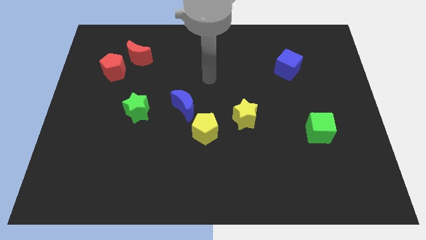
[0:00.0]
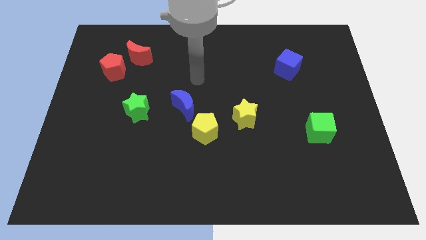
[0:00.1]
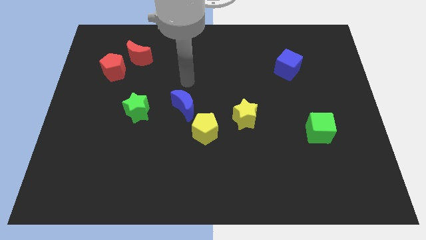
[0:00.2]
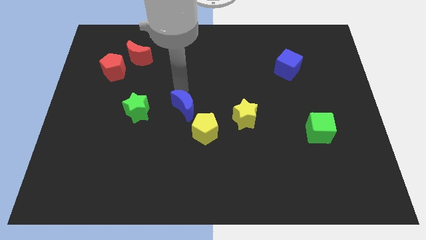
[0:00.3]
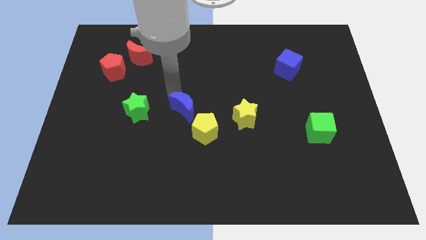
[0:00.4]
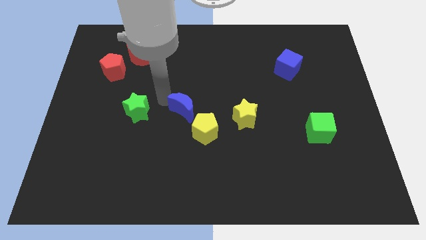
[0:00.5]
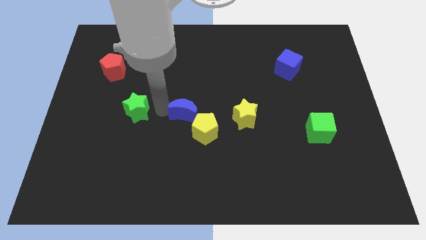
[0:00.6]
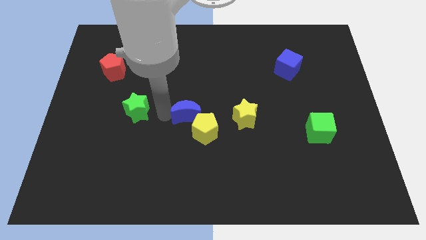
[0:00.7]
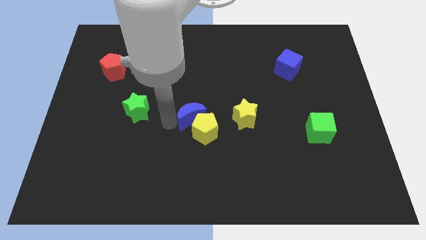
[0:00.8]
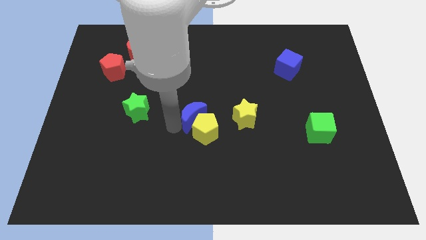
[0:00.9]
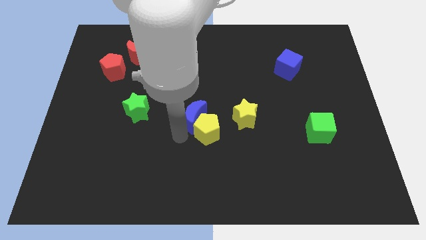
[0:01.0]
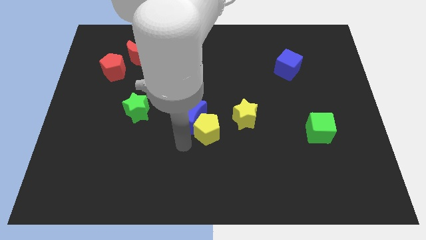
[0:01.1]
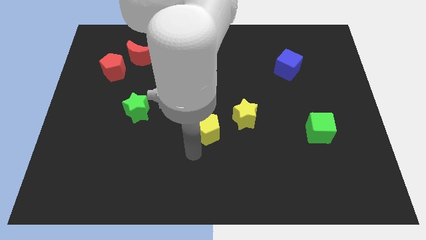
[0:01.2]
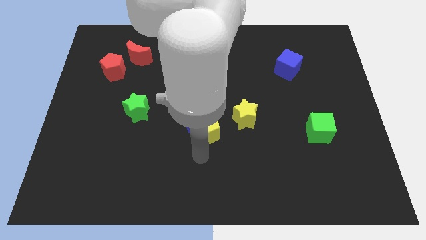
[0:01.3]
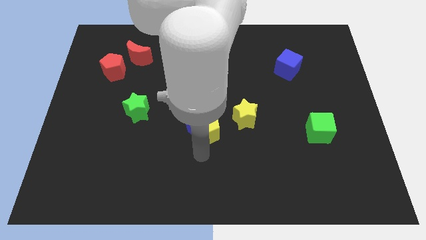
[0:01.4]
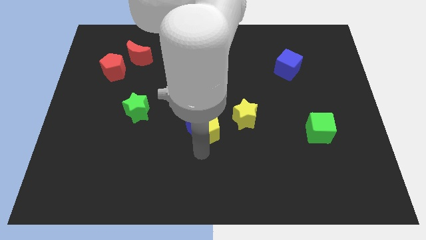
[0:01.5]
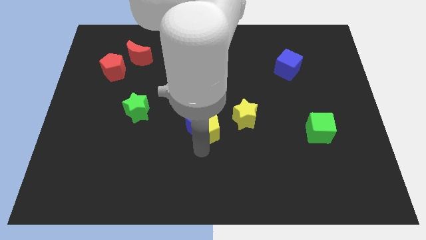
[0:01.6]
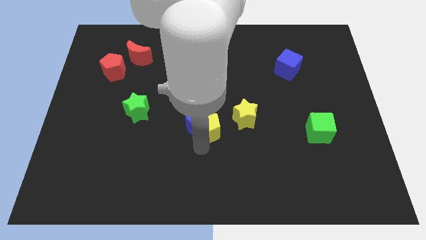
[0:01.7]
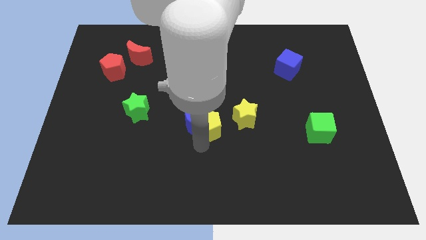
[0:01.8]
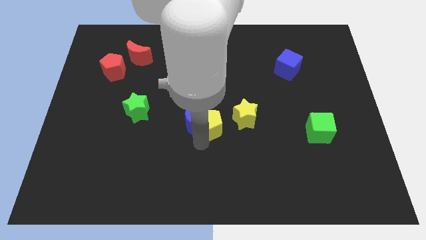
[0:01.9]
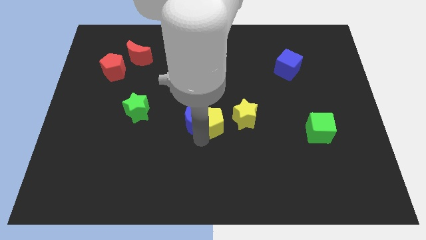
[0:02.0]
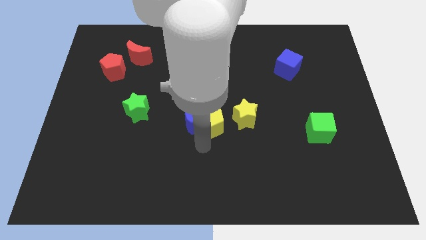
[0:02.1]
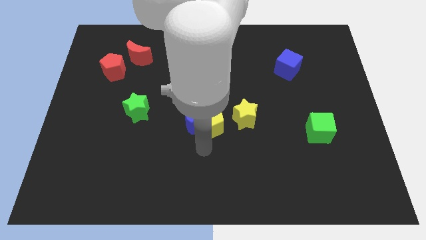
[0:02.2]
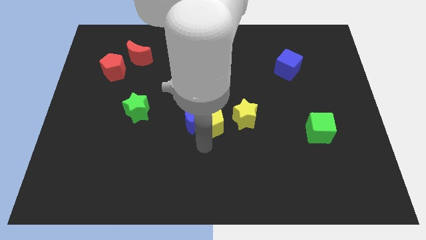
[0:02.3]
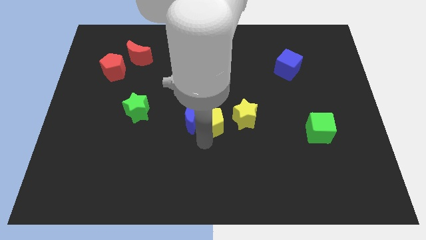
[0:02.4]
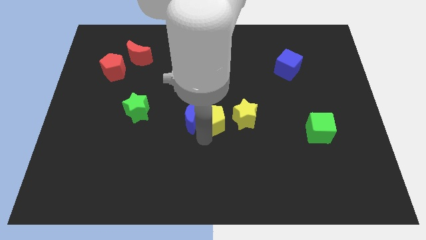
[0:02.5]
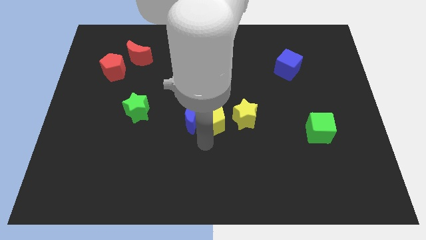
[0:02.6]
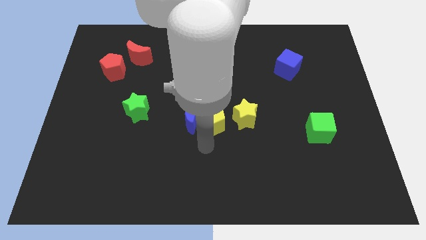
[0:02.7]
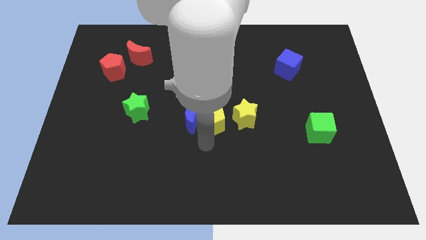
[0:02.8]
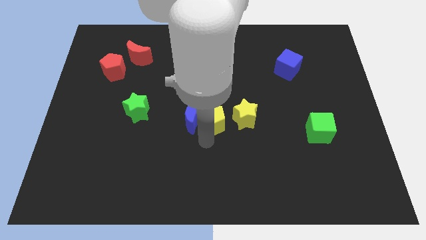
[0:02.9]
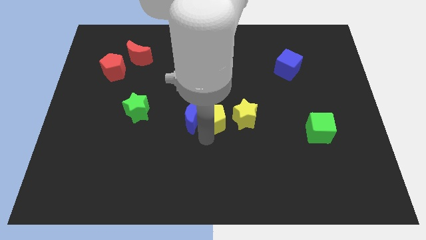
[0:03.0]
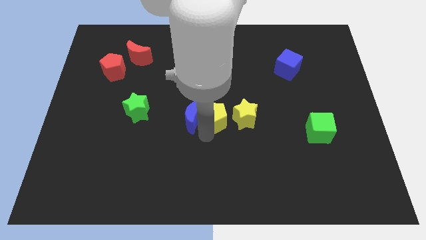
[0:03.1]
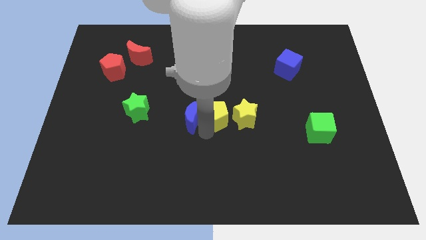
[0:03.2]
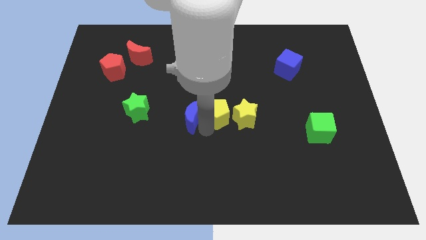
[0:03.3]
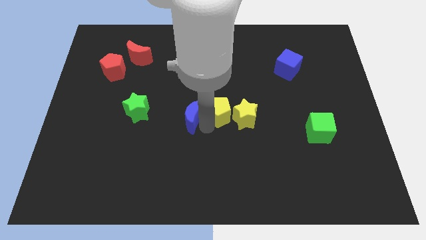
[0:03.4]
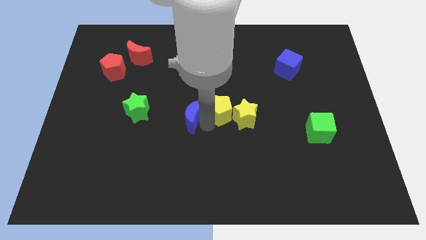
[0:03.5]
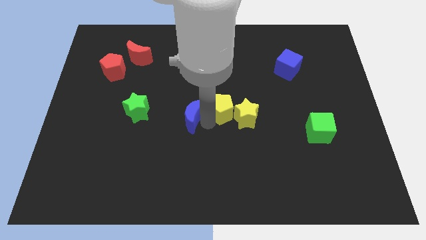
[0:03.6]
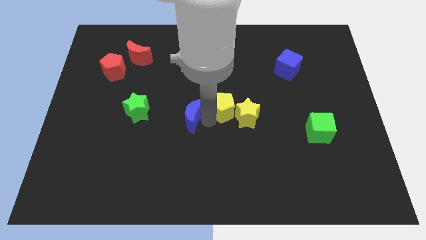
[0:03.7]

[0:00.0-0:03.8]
push the yellow pentagon a little bit upwards and right diagonally

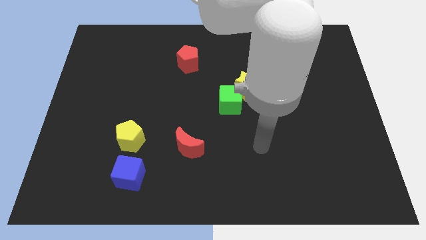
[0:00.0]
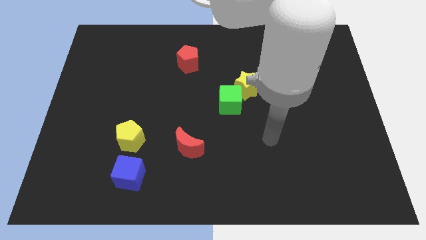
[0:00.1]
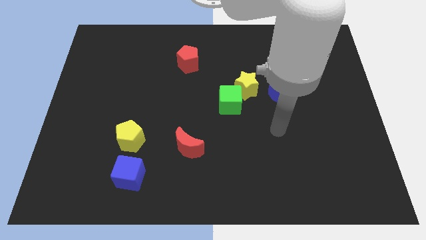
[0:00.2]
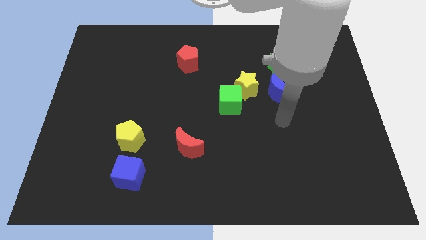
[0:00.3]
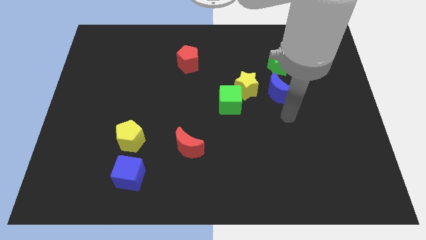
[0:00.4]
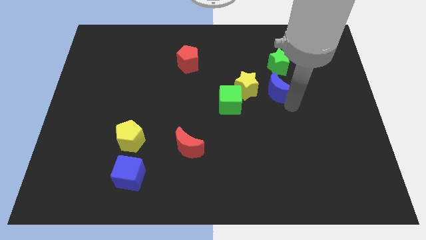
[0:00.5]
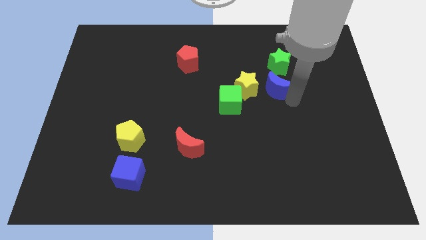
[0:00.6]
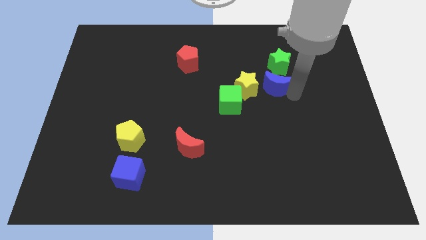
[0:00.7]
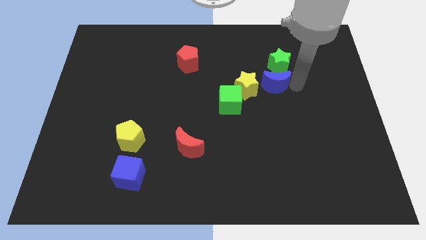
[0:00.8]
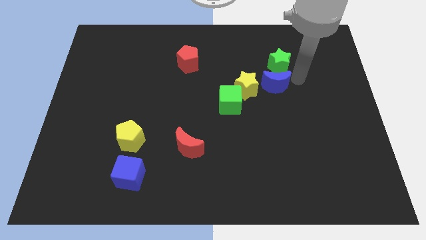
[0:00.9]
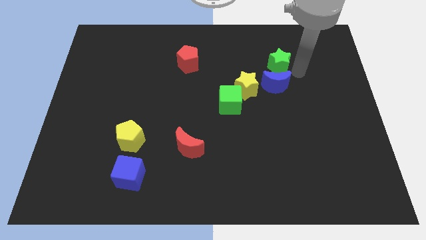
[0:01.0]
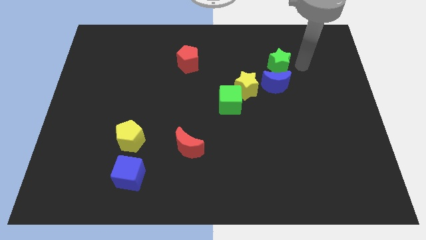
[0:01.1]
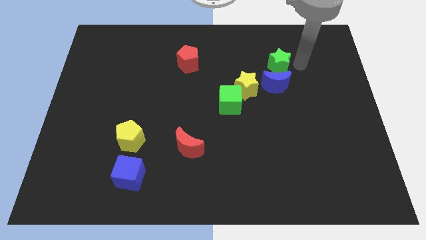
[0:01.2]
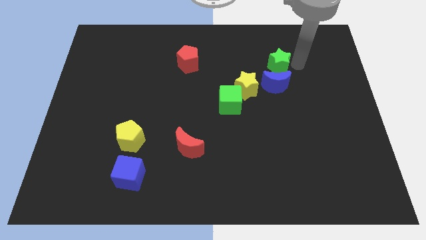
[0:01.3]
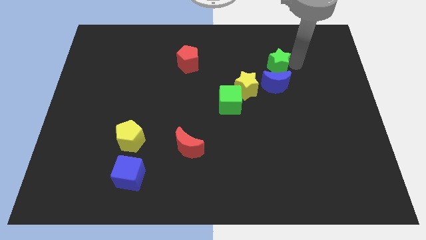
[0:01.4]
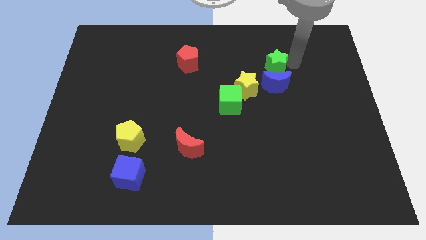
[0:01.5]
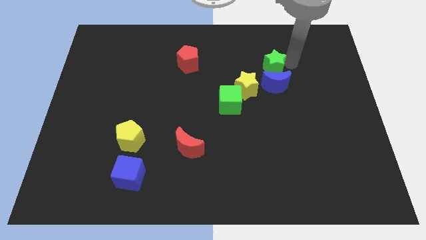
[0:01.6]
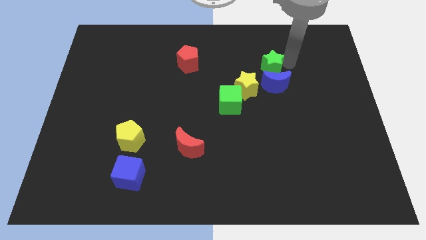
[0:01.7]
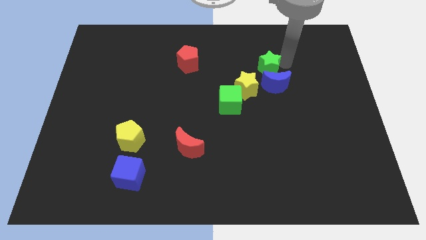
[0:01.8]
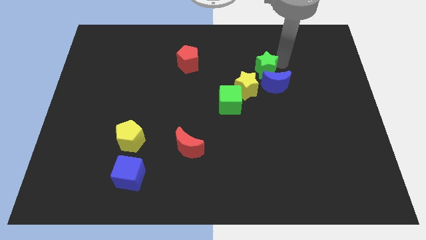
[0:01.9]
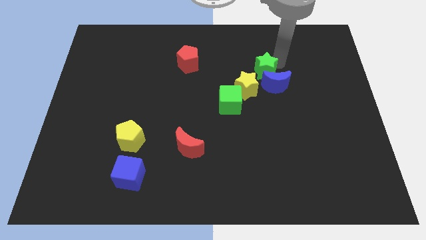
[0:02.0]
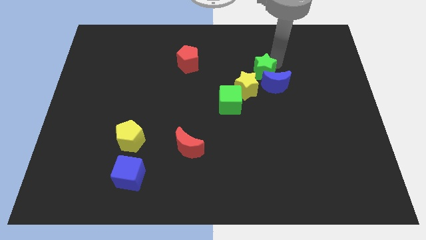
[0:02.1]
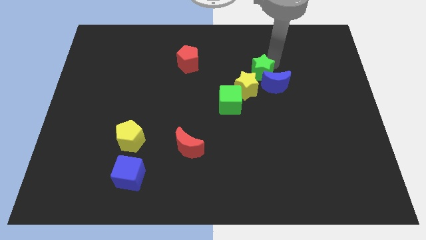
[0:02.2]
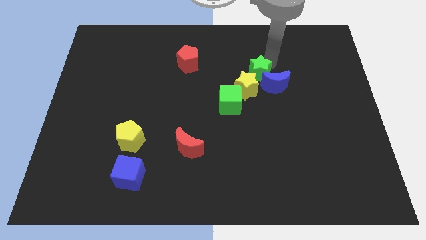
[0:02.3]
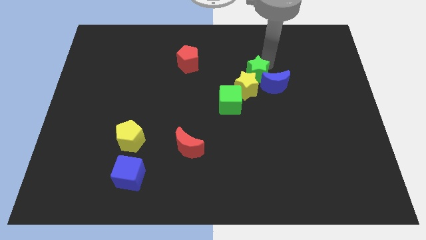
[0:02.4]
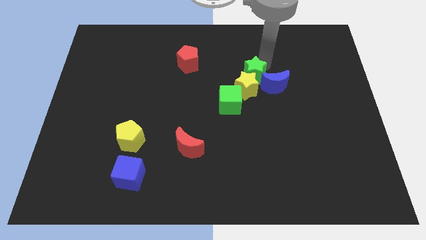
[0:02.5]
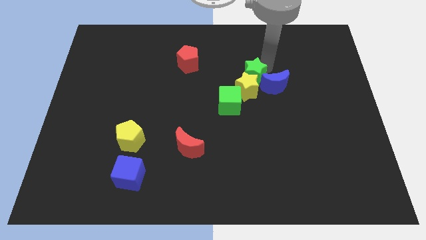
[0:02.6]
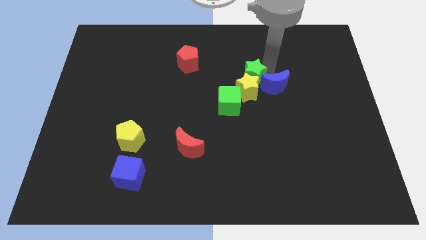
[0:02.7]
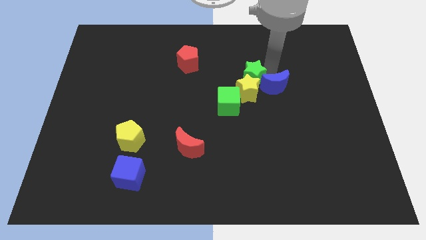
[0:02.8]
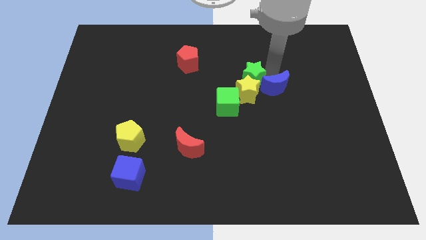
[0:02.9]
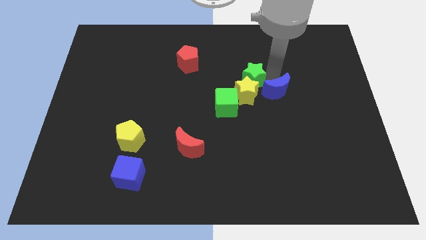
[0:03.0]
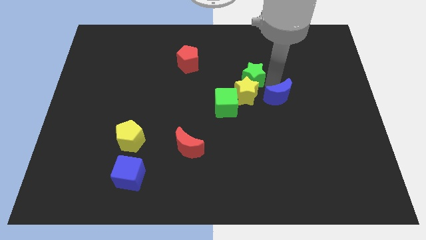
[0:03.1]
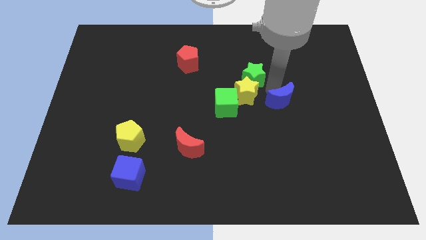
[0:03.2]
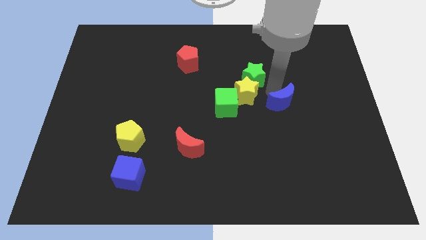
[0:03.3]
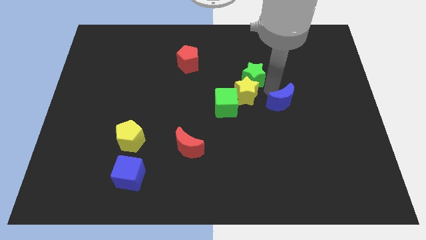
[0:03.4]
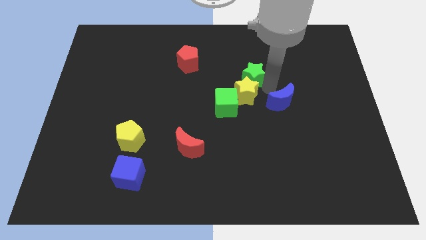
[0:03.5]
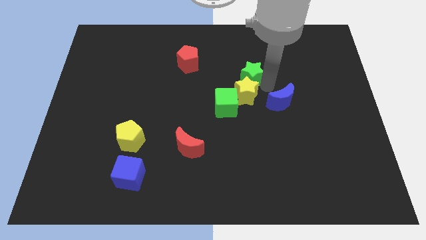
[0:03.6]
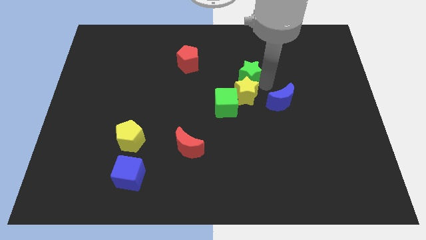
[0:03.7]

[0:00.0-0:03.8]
move the green star left somewhat

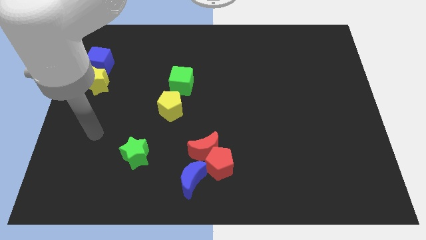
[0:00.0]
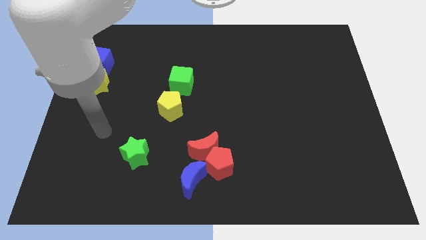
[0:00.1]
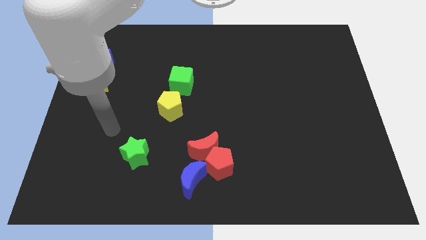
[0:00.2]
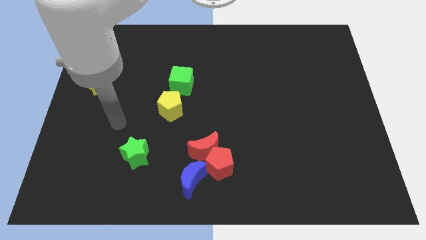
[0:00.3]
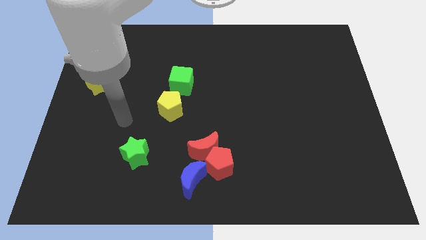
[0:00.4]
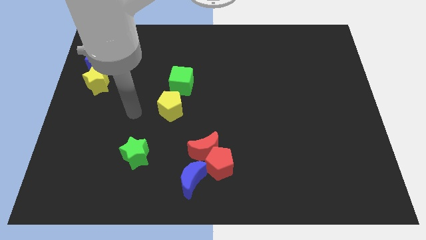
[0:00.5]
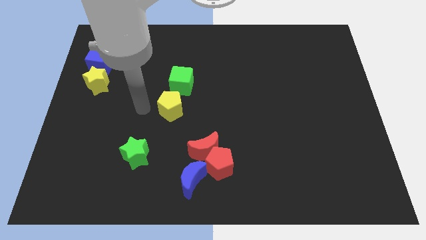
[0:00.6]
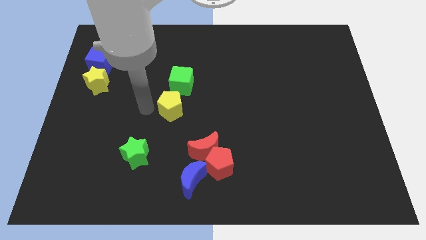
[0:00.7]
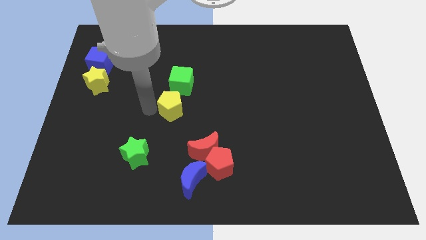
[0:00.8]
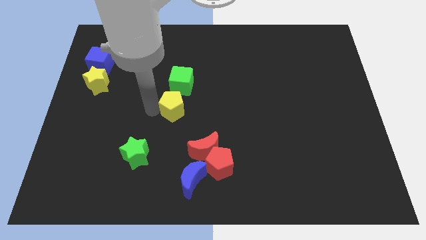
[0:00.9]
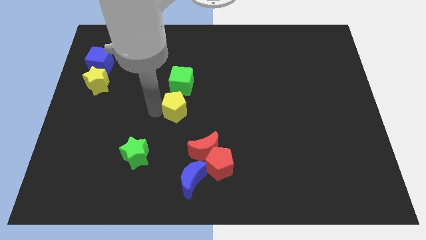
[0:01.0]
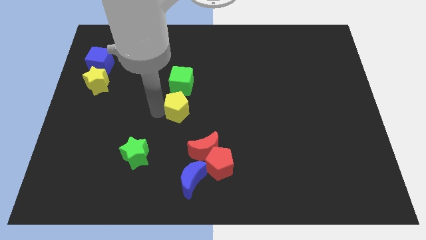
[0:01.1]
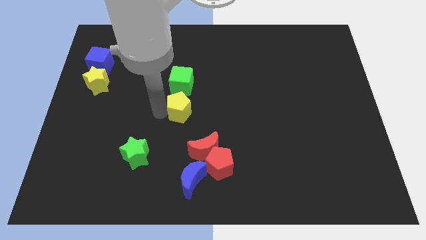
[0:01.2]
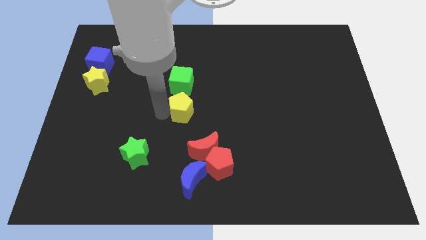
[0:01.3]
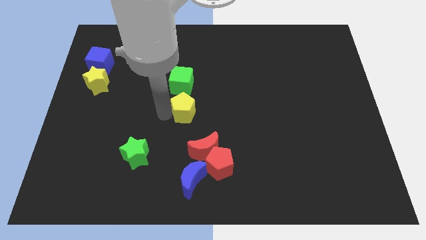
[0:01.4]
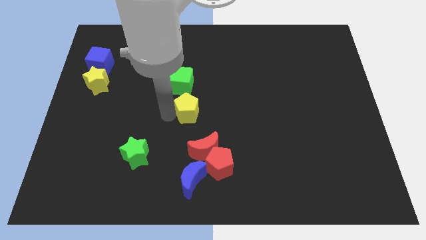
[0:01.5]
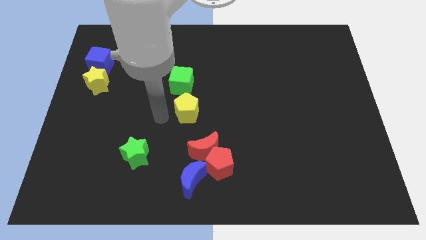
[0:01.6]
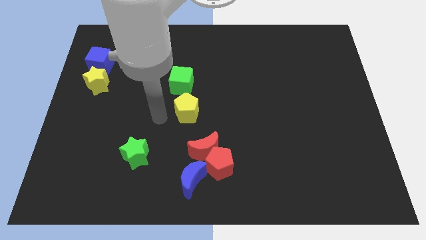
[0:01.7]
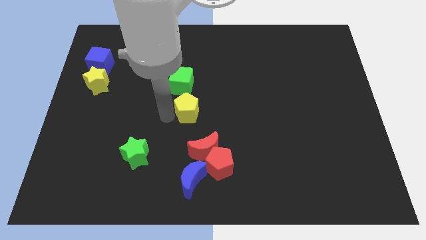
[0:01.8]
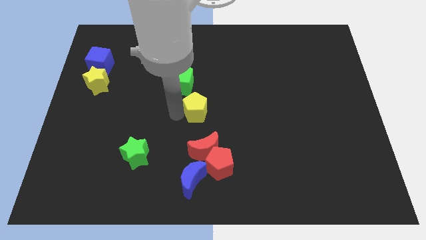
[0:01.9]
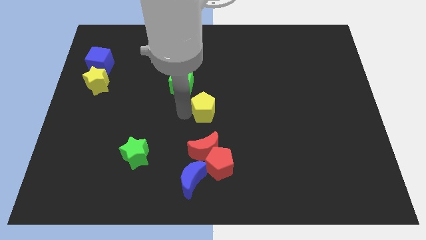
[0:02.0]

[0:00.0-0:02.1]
push the yellow pentagon a little bit to the right
